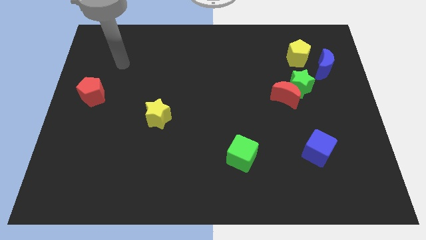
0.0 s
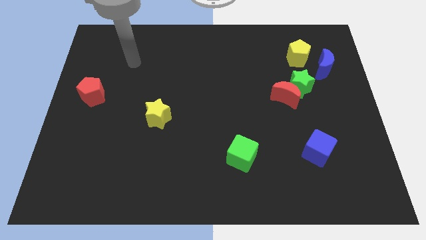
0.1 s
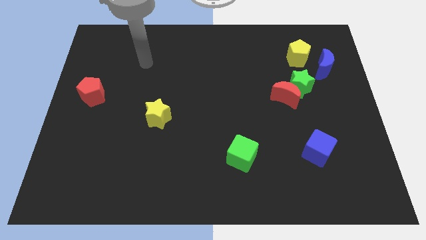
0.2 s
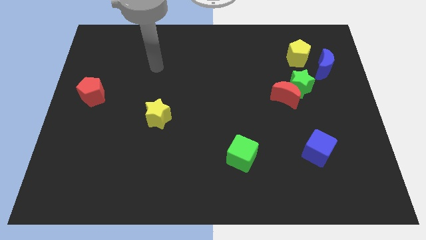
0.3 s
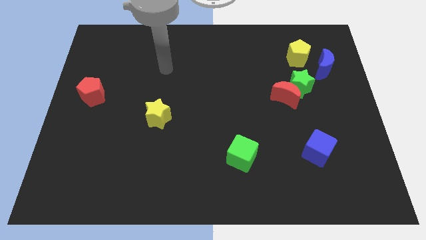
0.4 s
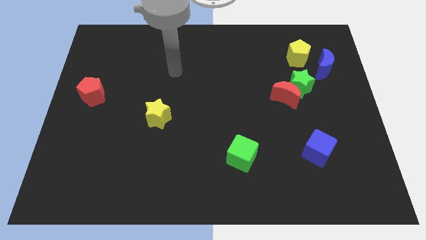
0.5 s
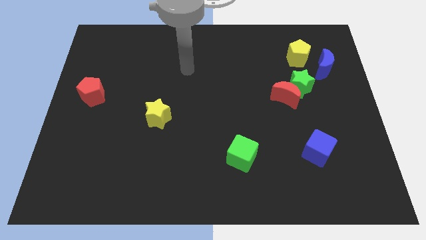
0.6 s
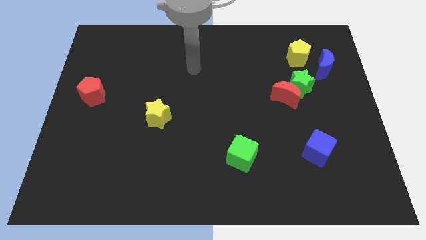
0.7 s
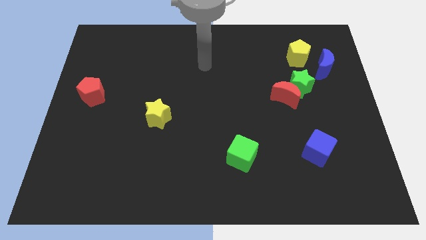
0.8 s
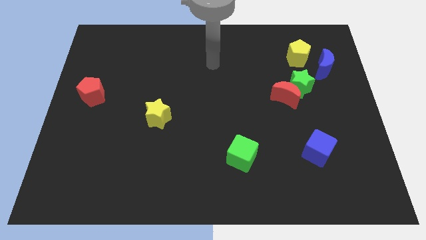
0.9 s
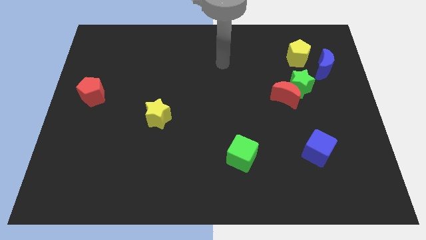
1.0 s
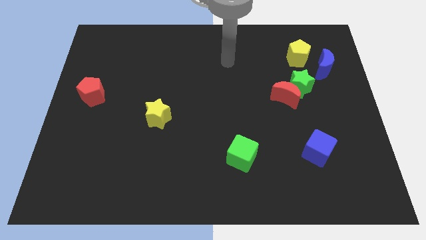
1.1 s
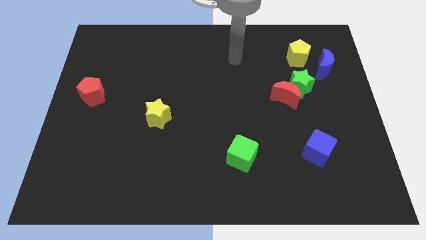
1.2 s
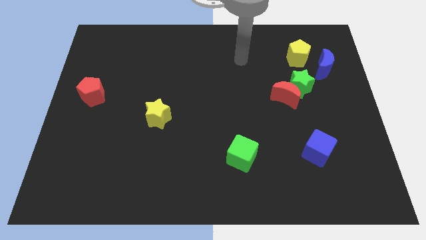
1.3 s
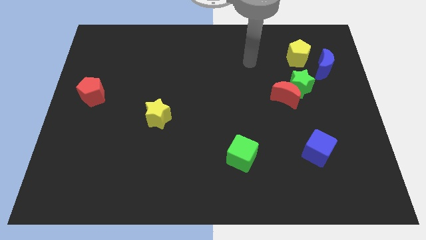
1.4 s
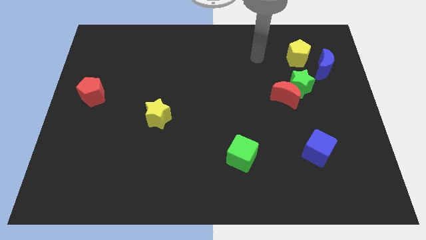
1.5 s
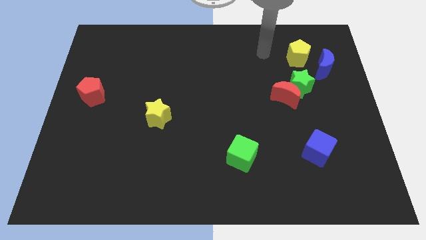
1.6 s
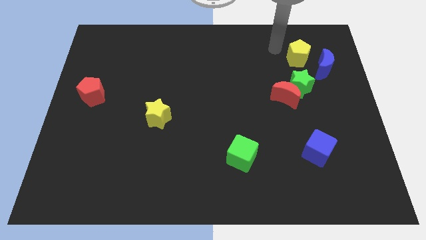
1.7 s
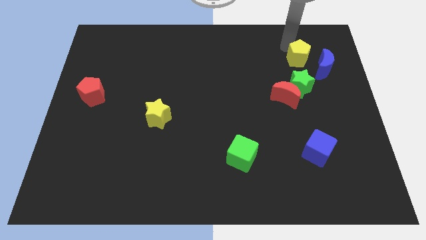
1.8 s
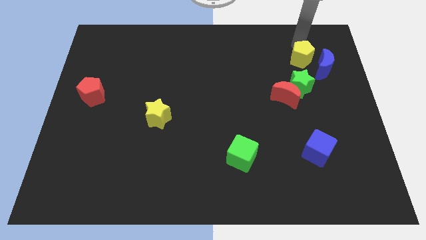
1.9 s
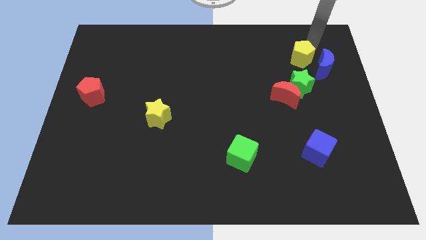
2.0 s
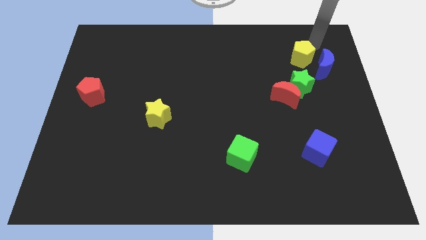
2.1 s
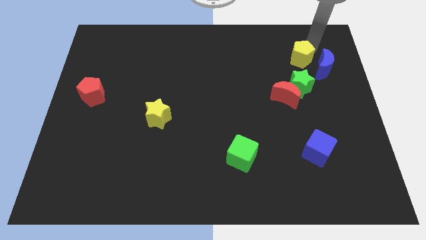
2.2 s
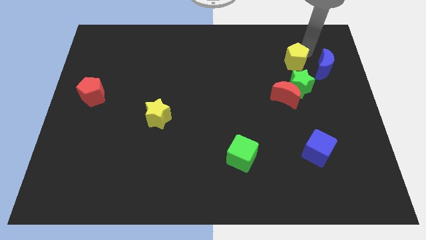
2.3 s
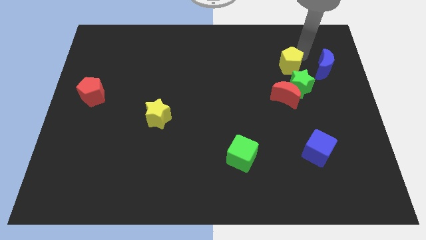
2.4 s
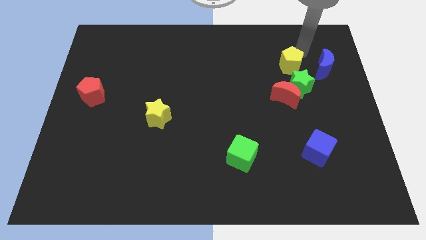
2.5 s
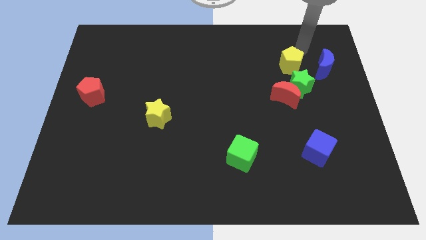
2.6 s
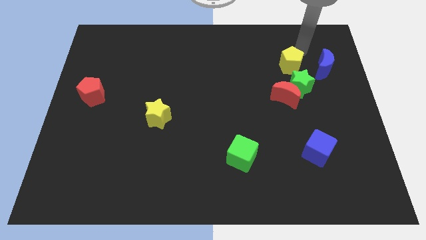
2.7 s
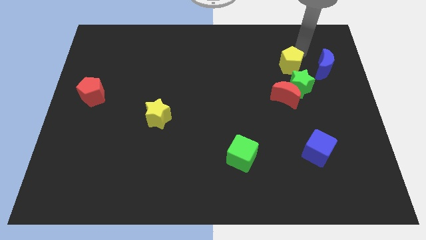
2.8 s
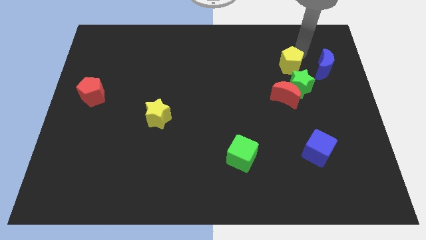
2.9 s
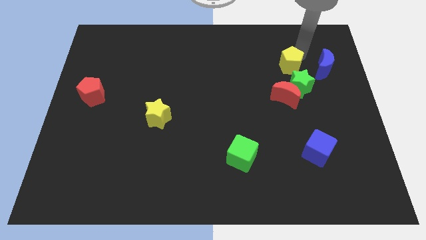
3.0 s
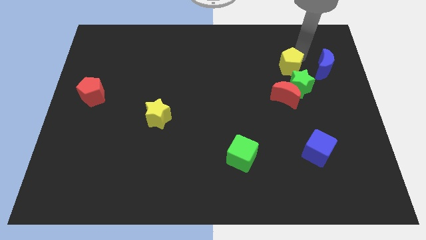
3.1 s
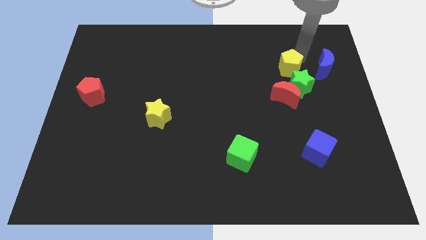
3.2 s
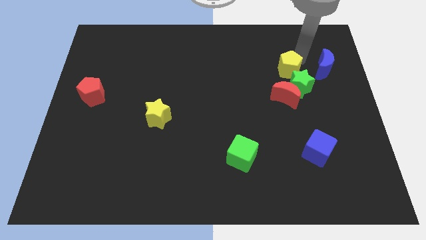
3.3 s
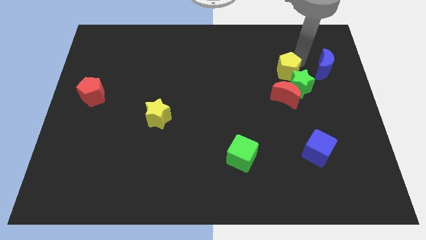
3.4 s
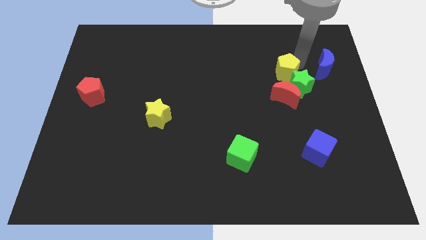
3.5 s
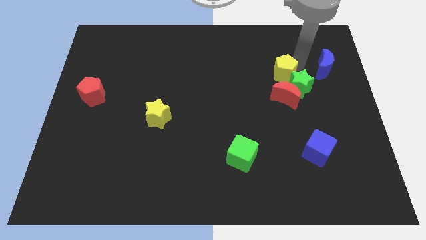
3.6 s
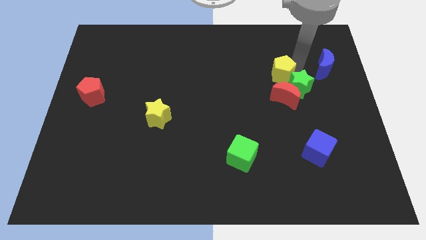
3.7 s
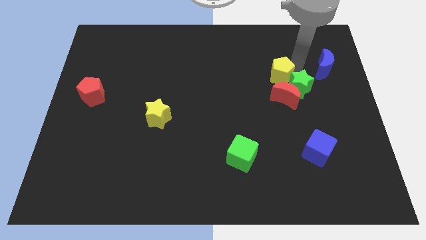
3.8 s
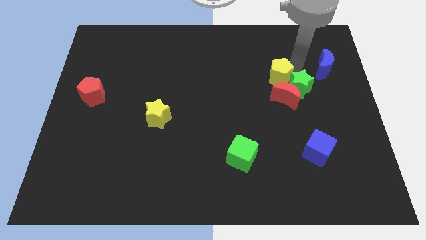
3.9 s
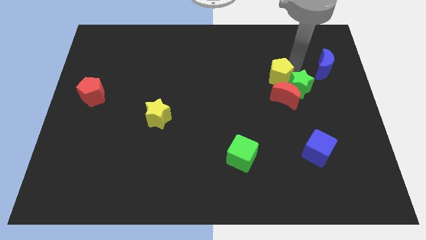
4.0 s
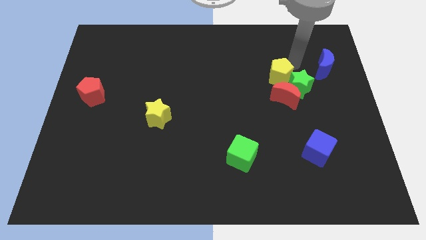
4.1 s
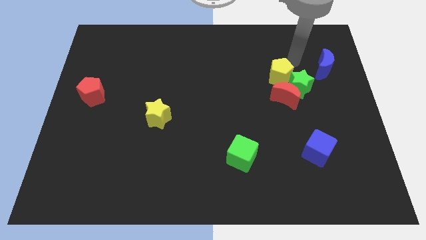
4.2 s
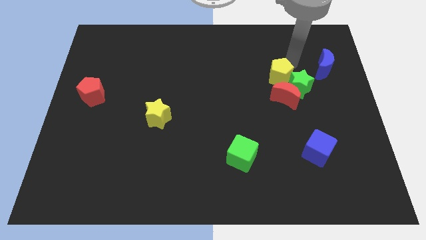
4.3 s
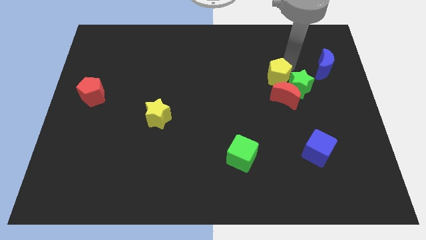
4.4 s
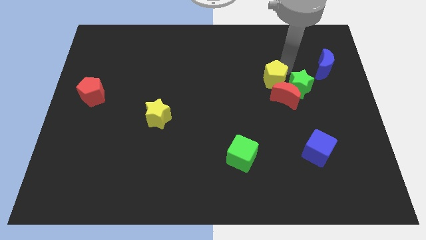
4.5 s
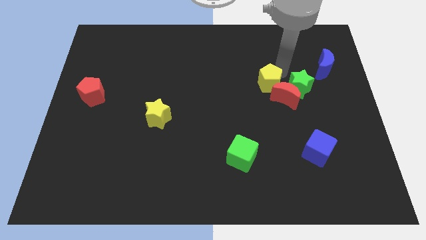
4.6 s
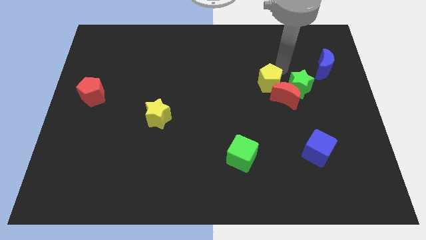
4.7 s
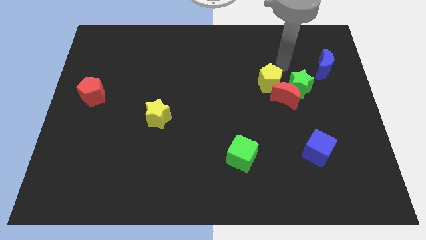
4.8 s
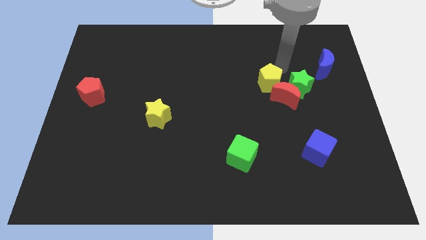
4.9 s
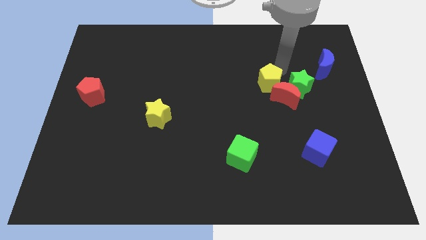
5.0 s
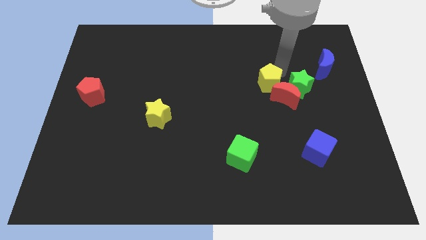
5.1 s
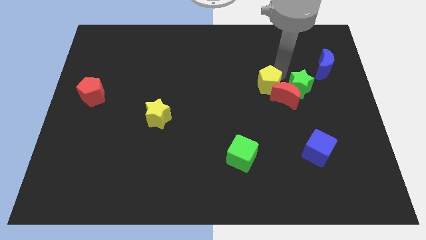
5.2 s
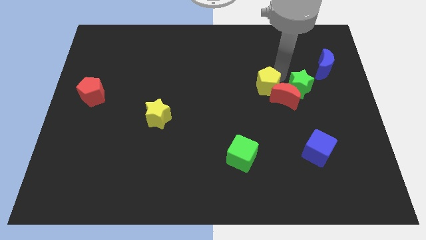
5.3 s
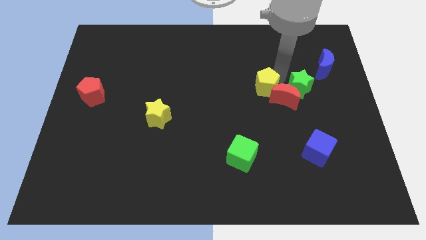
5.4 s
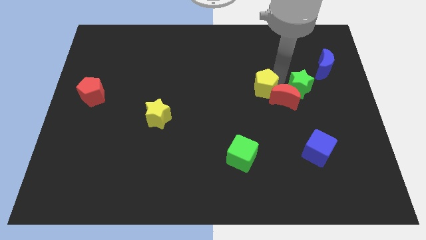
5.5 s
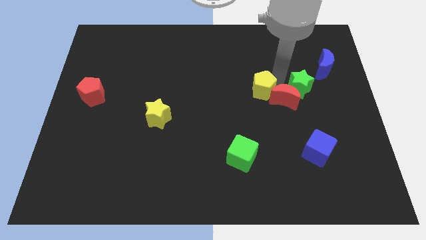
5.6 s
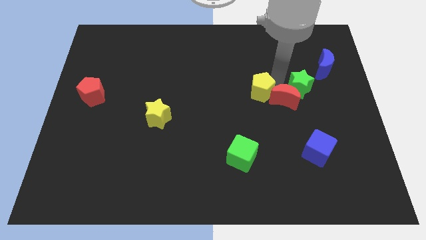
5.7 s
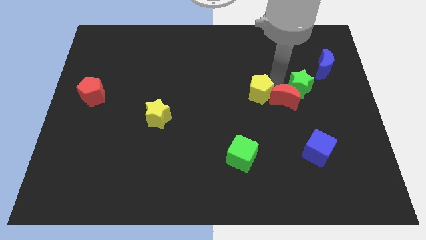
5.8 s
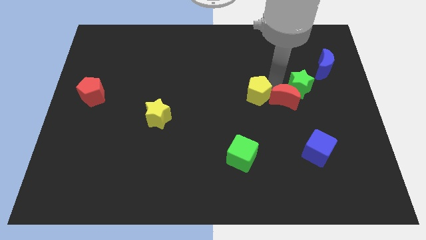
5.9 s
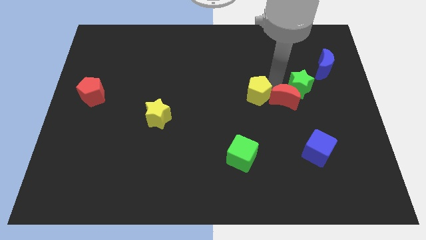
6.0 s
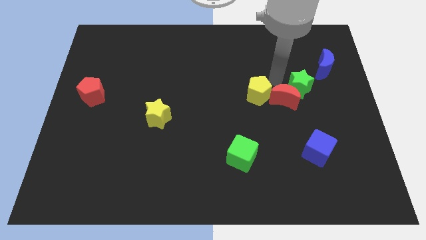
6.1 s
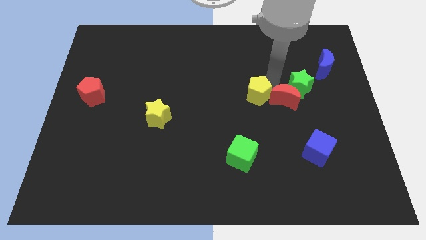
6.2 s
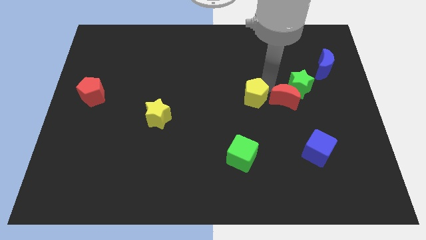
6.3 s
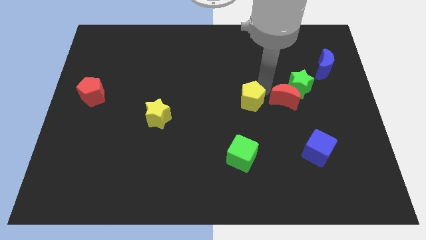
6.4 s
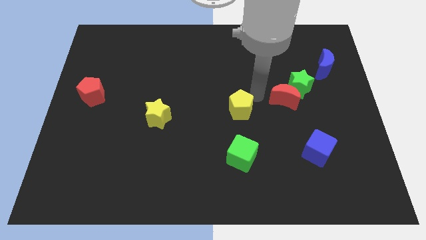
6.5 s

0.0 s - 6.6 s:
move the yellow pentagon diagonally downwards and left

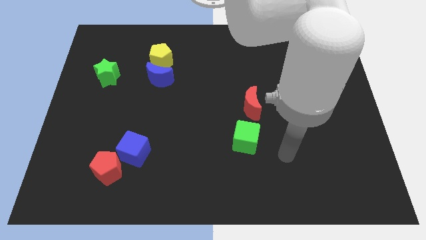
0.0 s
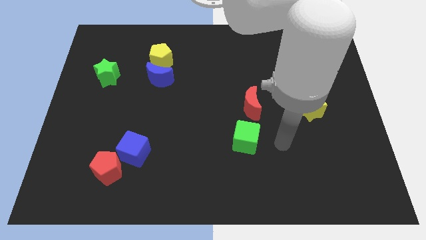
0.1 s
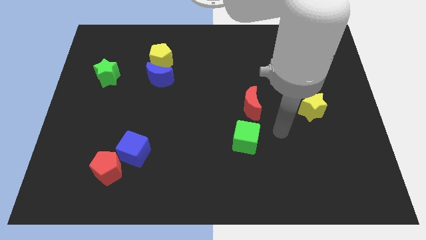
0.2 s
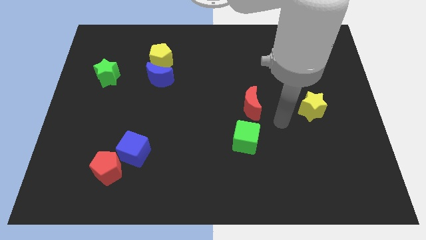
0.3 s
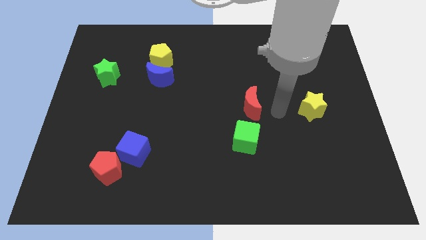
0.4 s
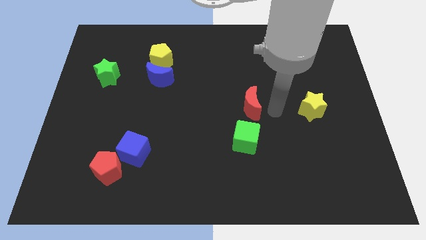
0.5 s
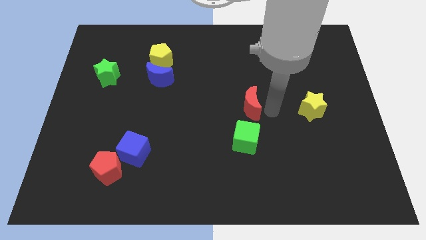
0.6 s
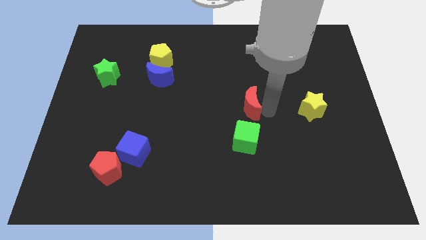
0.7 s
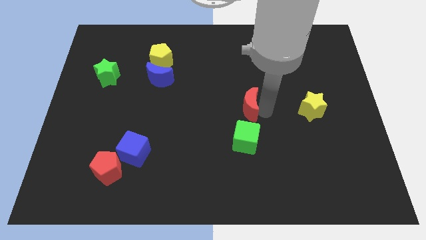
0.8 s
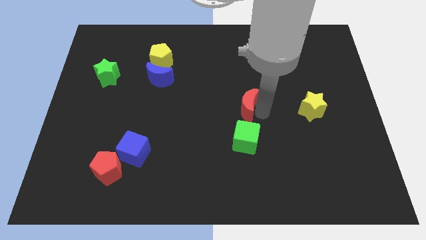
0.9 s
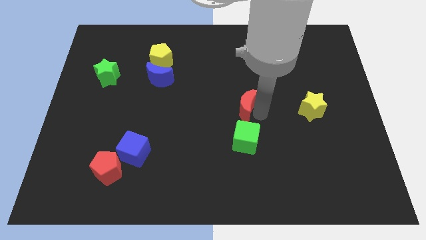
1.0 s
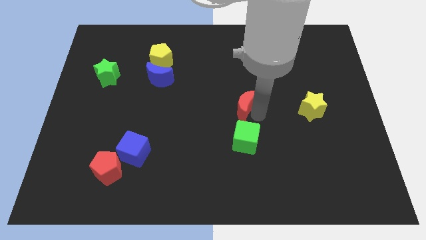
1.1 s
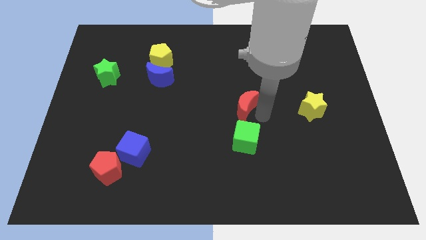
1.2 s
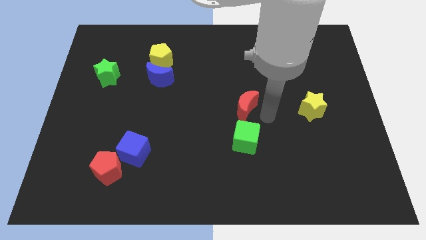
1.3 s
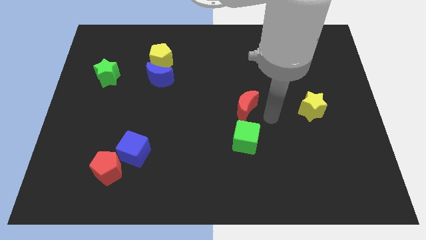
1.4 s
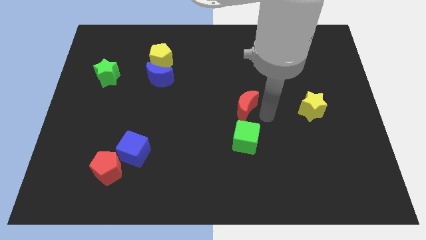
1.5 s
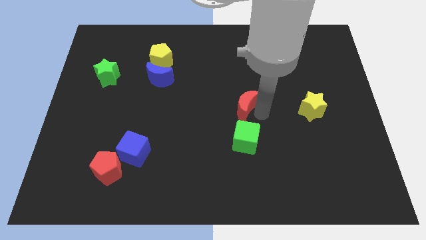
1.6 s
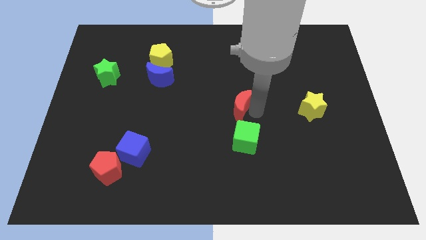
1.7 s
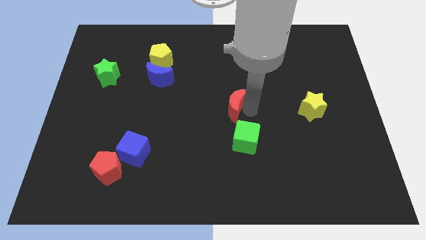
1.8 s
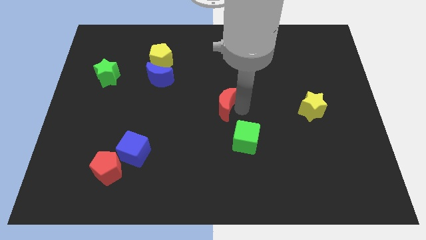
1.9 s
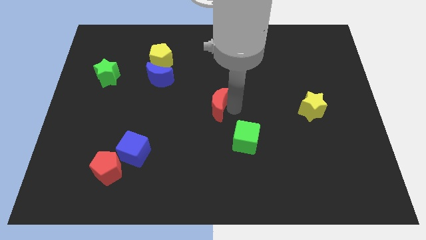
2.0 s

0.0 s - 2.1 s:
slightly slide the red moon left
